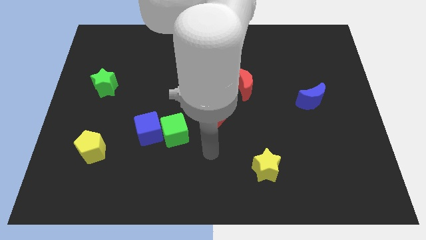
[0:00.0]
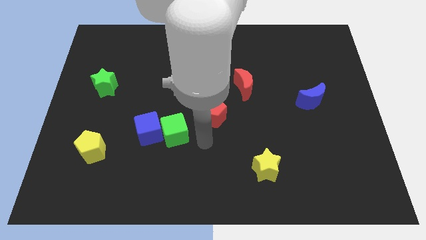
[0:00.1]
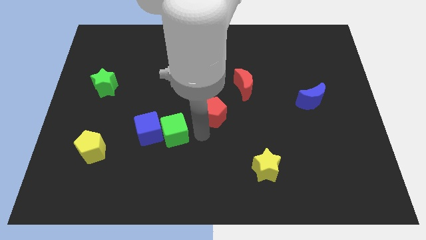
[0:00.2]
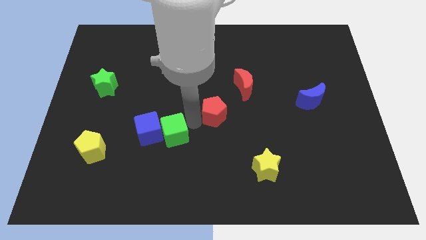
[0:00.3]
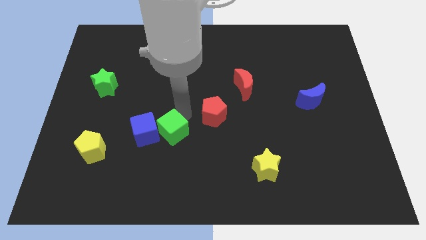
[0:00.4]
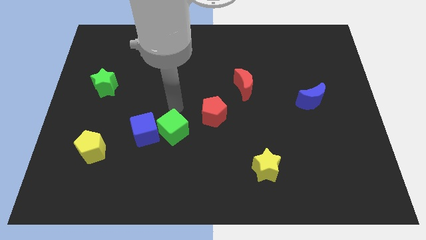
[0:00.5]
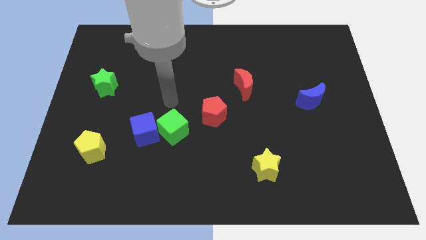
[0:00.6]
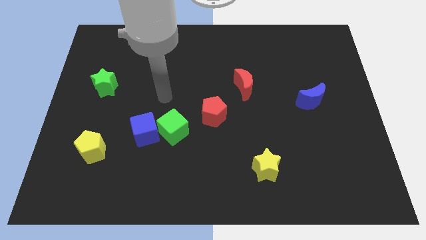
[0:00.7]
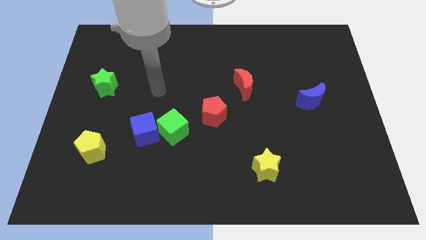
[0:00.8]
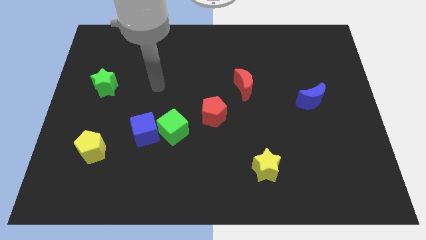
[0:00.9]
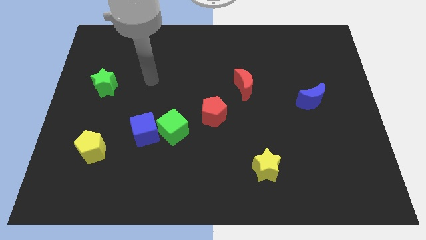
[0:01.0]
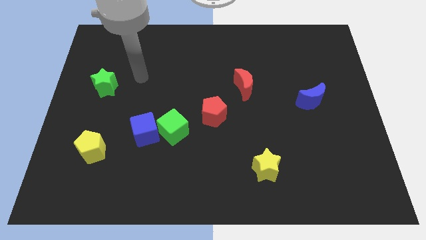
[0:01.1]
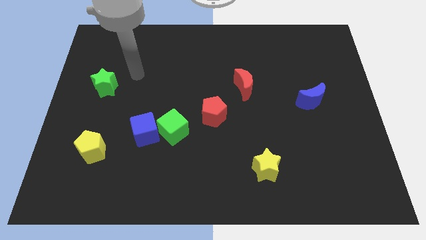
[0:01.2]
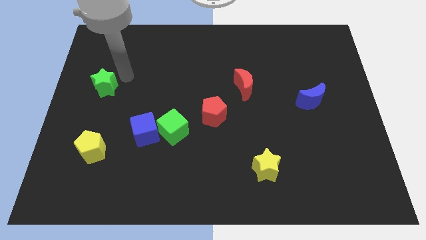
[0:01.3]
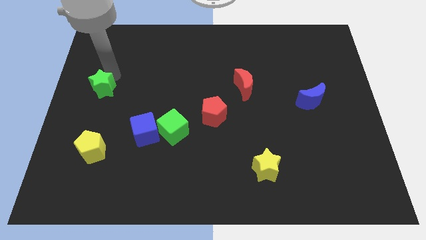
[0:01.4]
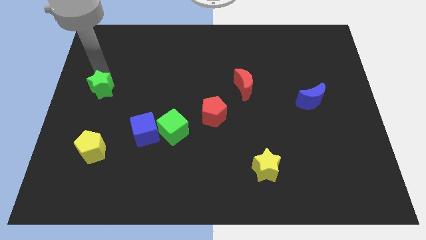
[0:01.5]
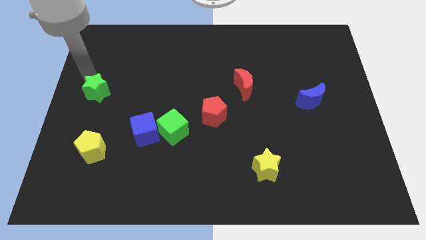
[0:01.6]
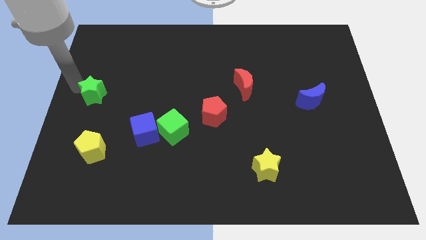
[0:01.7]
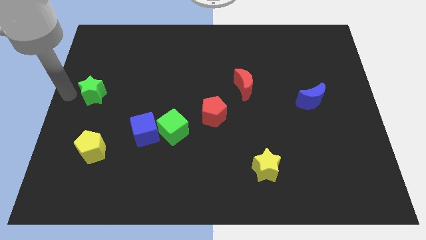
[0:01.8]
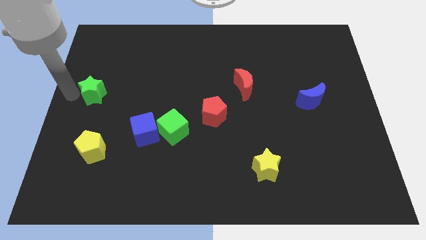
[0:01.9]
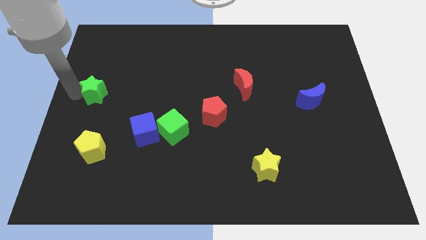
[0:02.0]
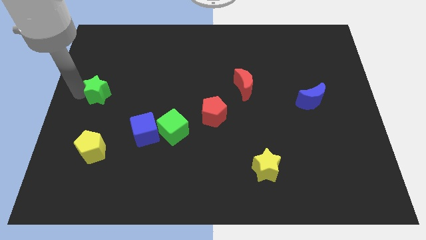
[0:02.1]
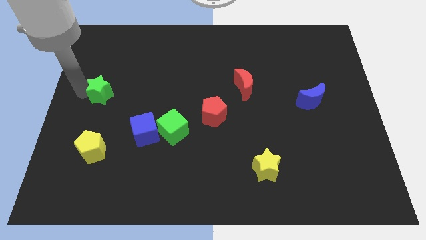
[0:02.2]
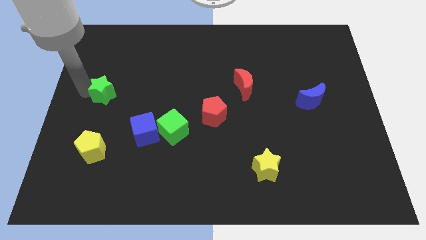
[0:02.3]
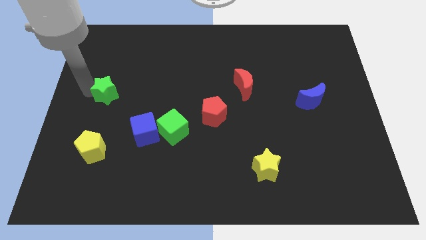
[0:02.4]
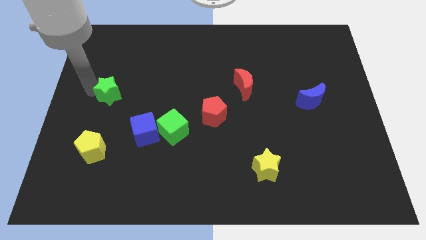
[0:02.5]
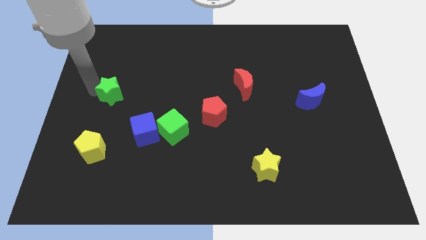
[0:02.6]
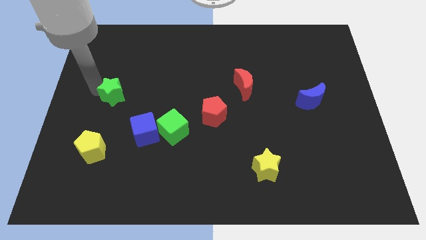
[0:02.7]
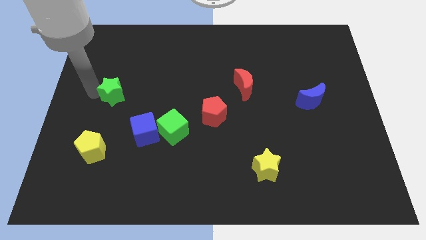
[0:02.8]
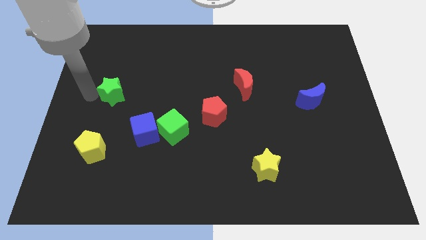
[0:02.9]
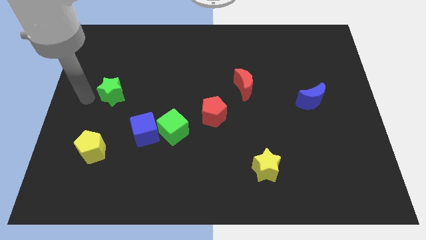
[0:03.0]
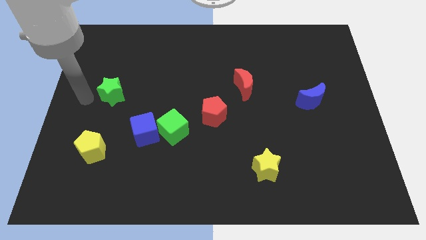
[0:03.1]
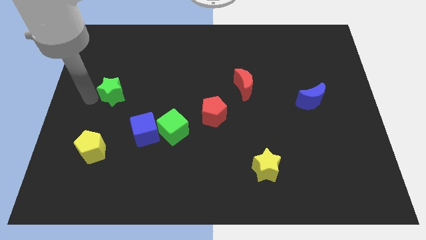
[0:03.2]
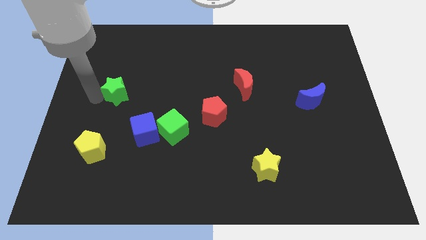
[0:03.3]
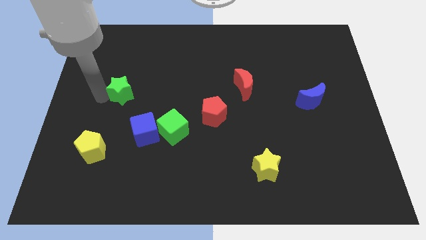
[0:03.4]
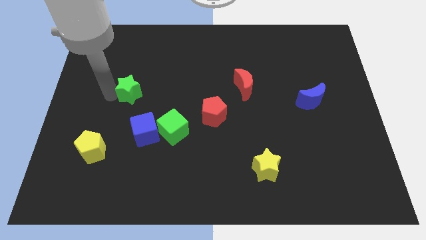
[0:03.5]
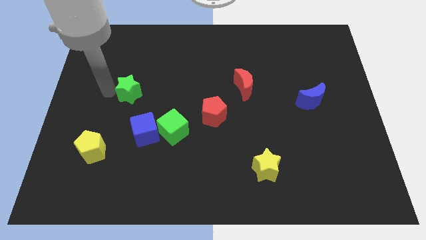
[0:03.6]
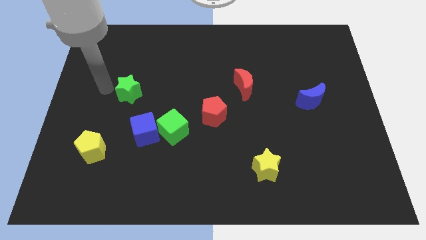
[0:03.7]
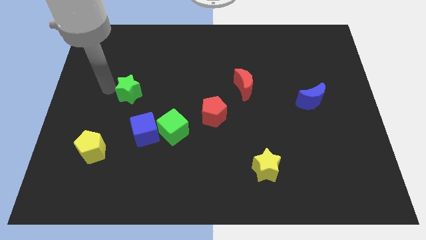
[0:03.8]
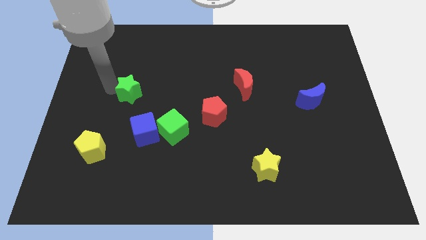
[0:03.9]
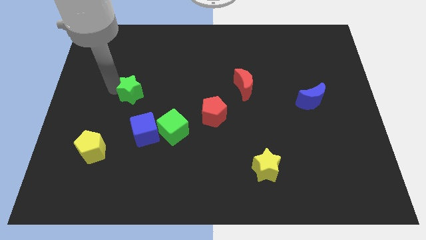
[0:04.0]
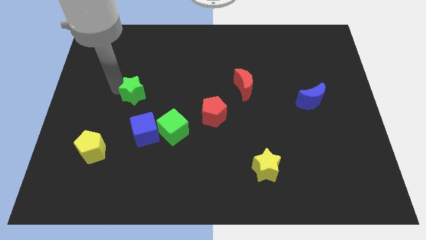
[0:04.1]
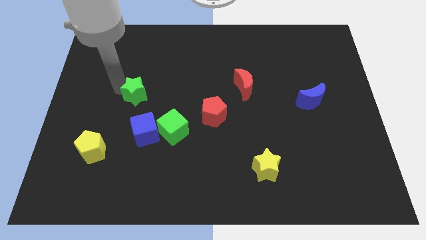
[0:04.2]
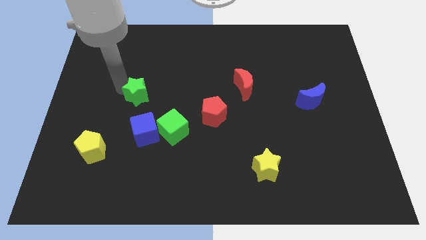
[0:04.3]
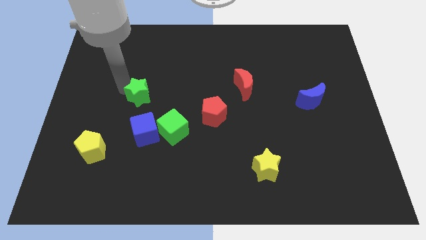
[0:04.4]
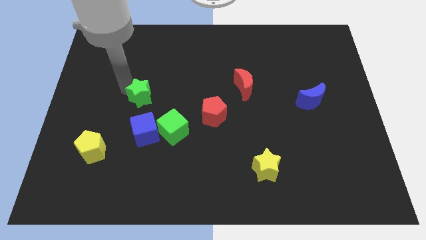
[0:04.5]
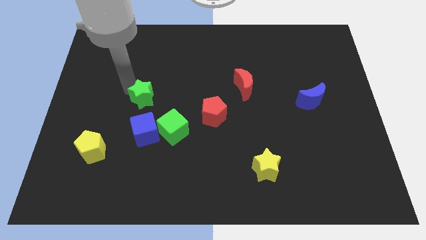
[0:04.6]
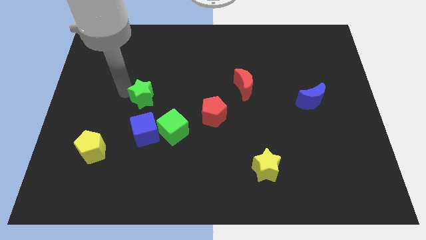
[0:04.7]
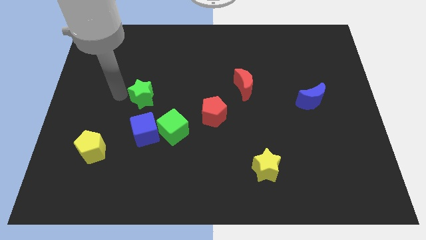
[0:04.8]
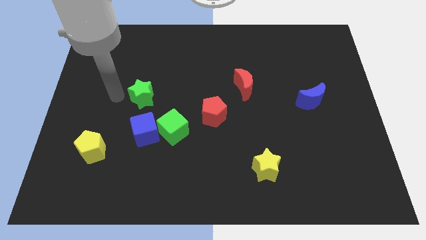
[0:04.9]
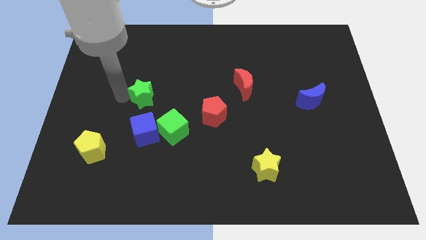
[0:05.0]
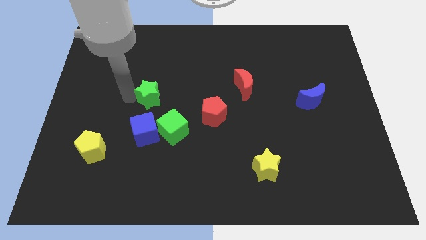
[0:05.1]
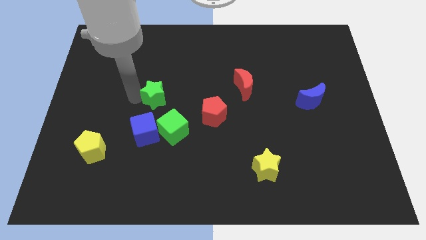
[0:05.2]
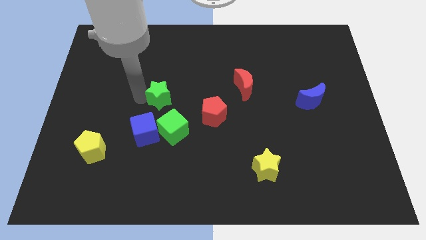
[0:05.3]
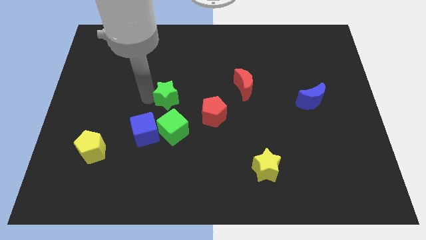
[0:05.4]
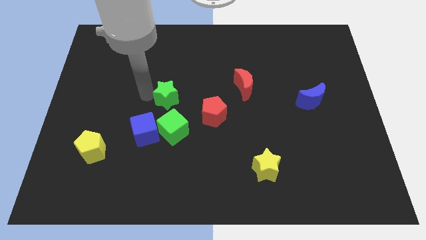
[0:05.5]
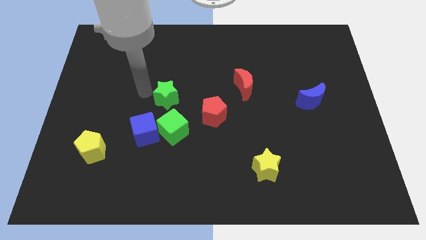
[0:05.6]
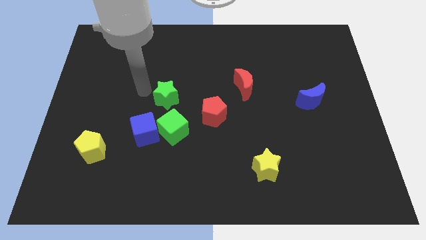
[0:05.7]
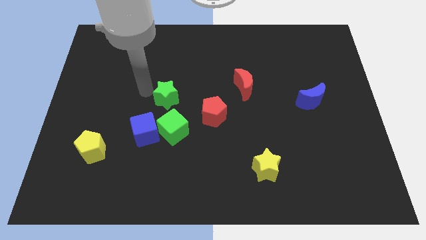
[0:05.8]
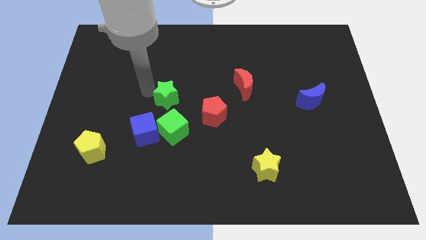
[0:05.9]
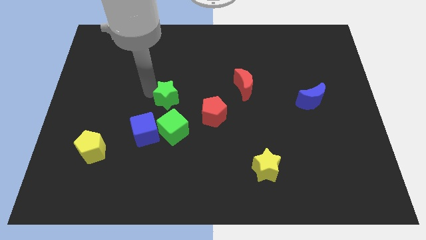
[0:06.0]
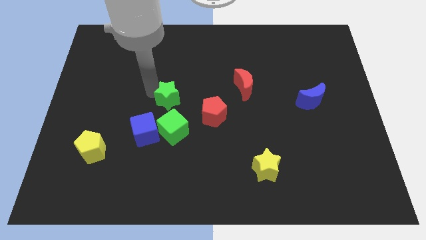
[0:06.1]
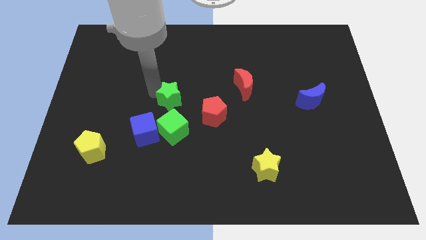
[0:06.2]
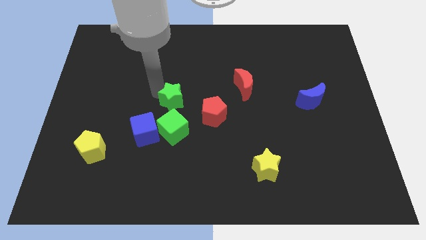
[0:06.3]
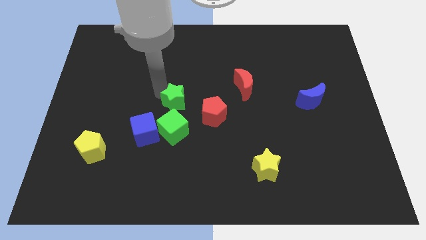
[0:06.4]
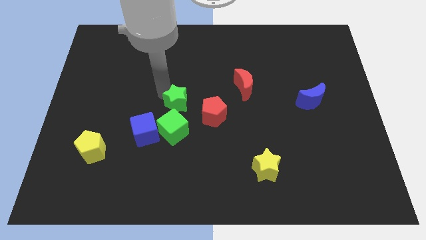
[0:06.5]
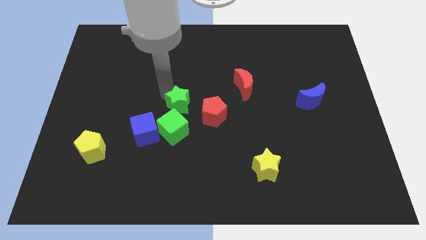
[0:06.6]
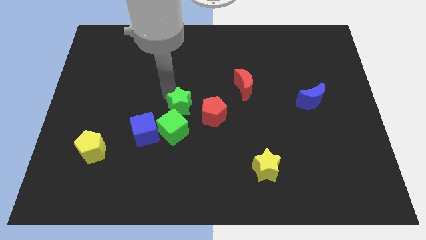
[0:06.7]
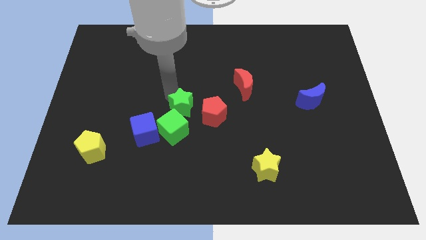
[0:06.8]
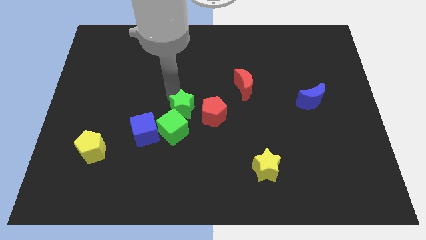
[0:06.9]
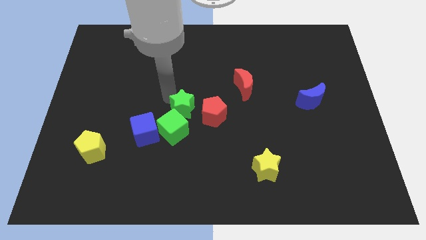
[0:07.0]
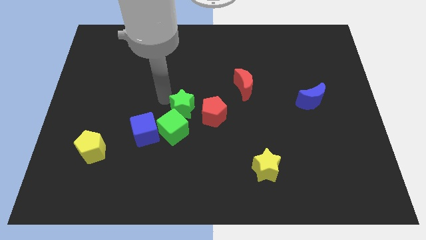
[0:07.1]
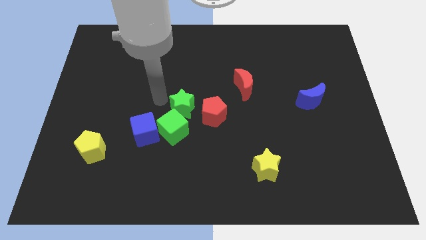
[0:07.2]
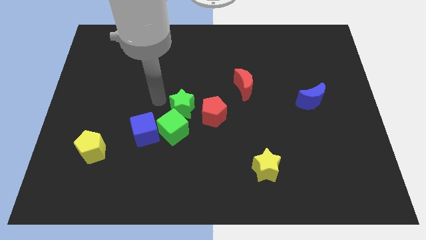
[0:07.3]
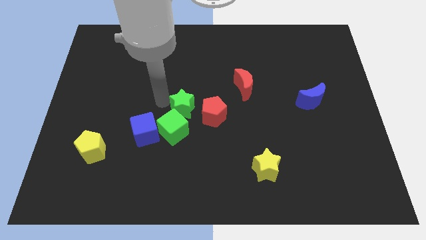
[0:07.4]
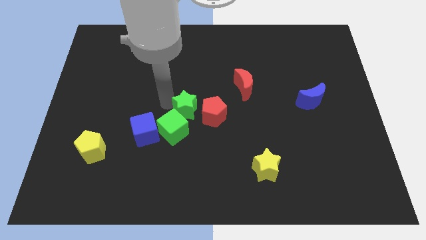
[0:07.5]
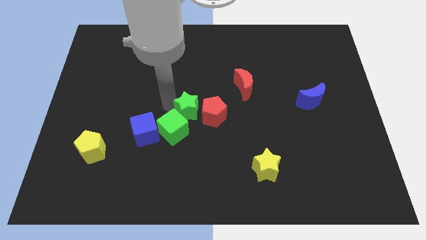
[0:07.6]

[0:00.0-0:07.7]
move the green star next to the red pentagon
